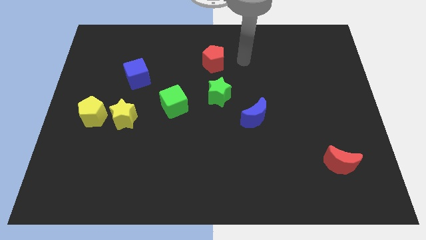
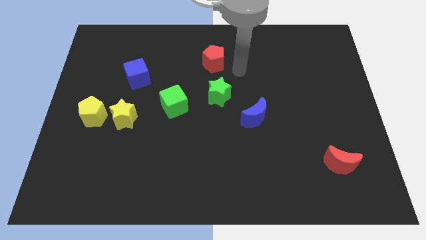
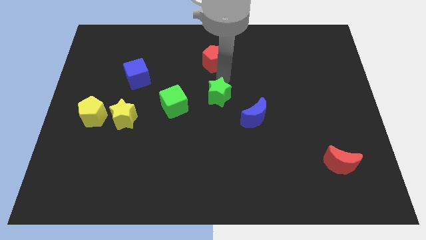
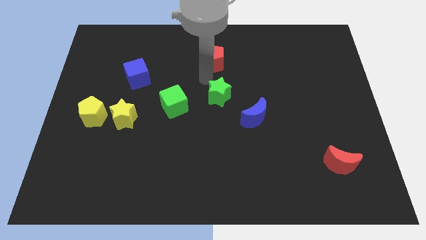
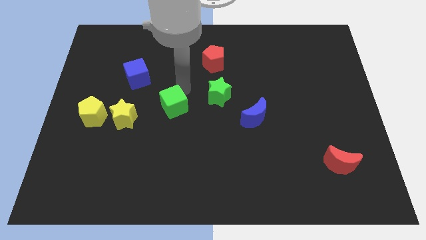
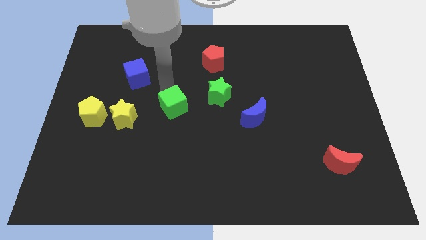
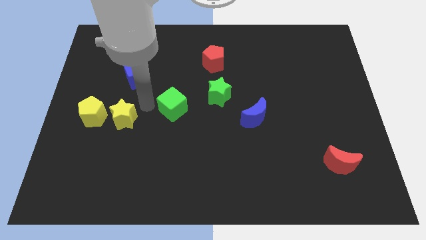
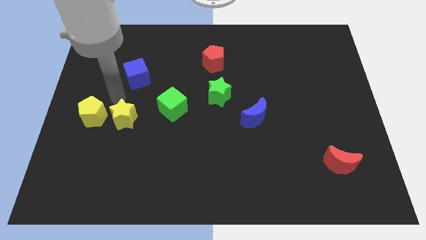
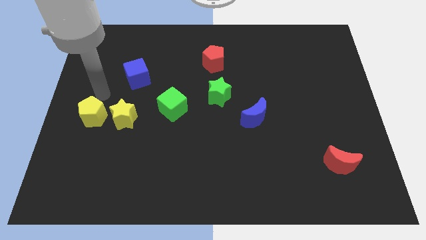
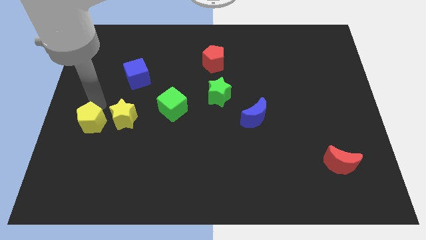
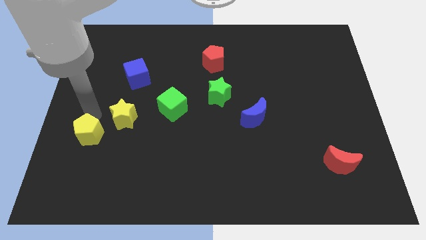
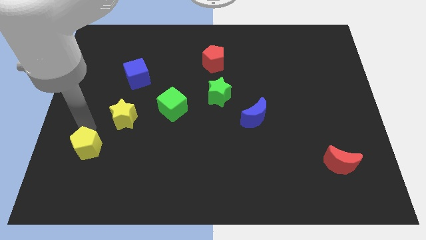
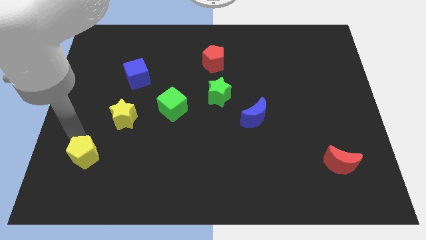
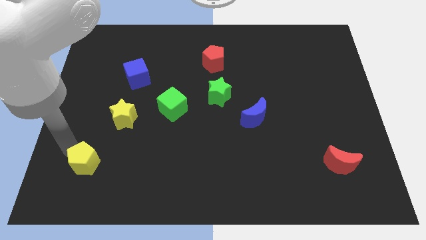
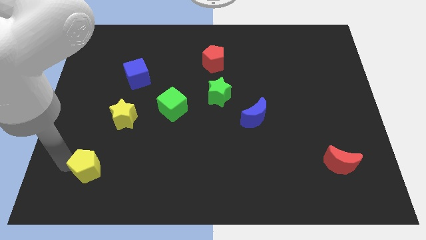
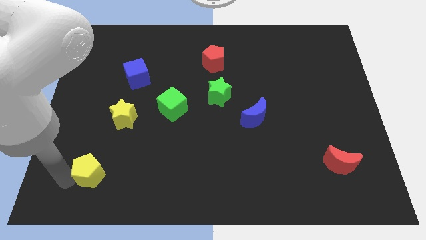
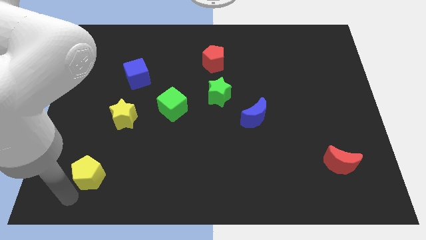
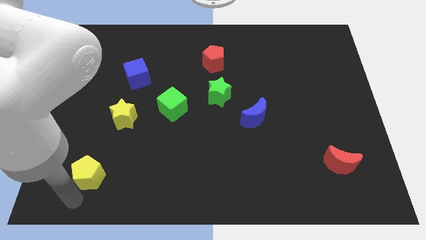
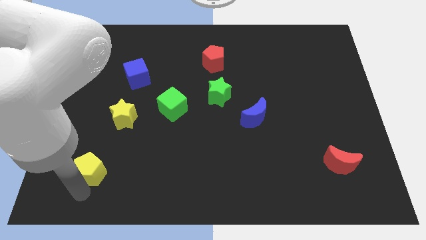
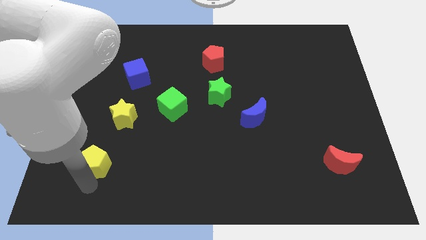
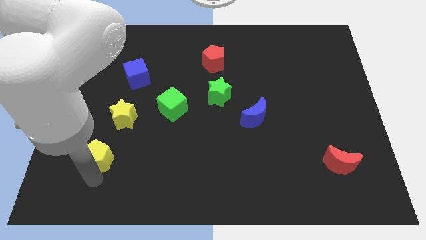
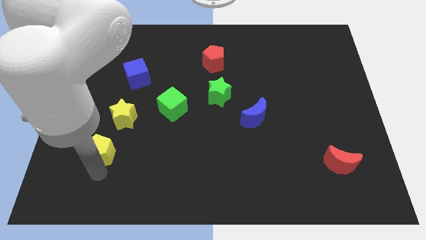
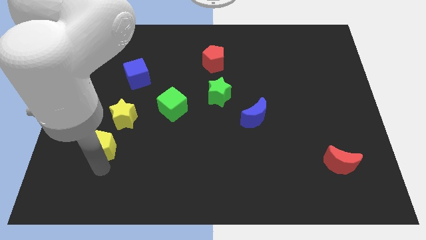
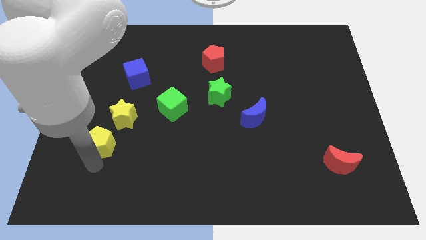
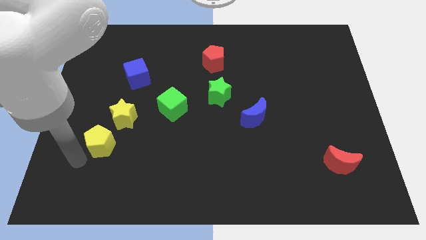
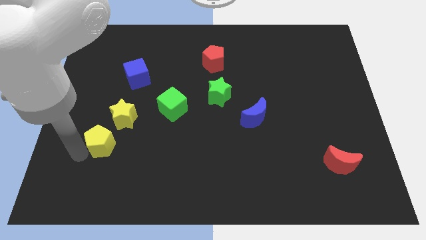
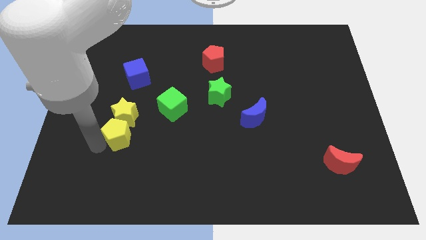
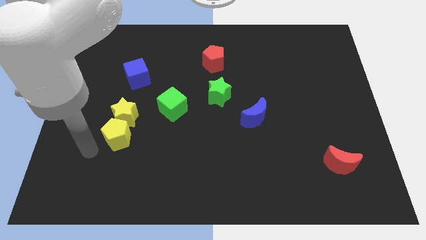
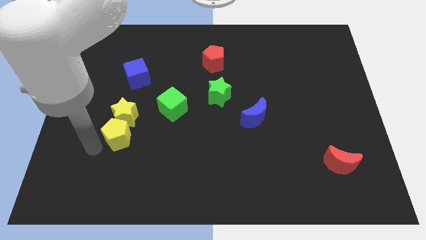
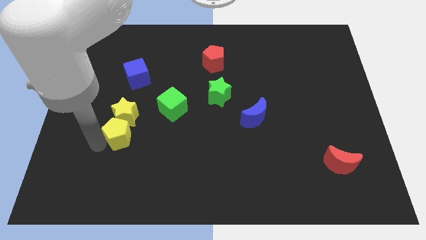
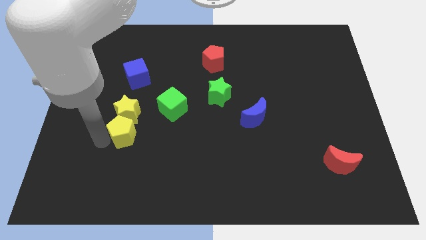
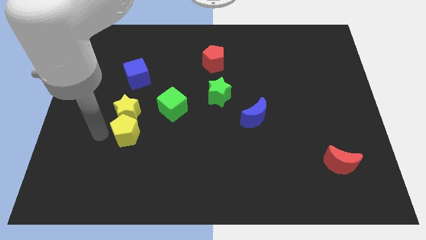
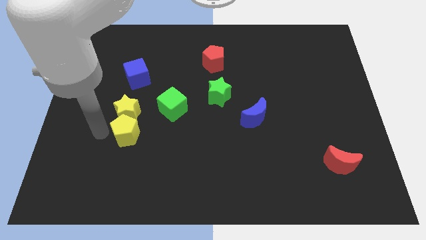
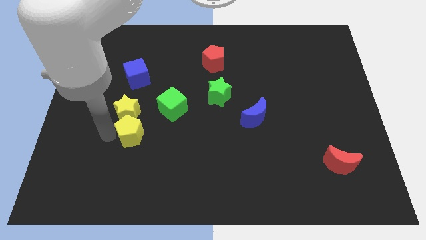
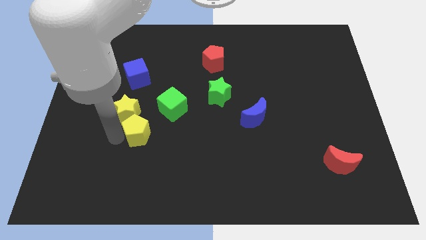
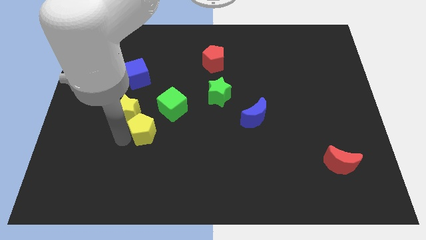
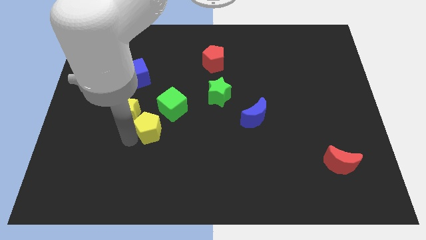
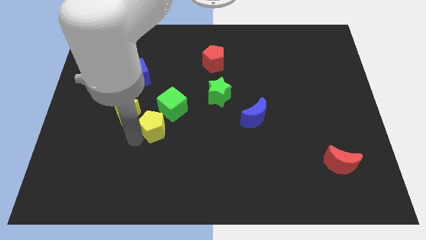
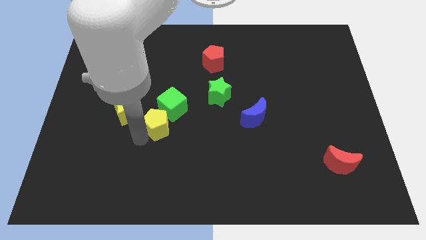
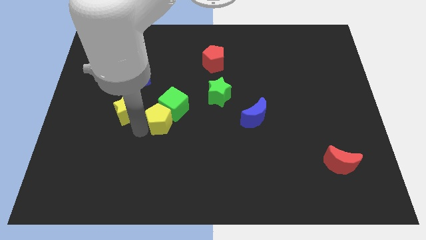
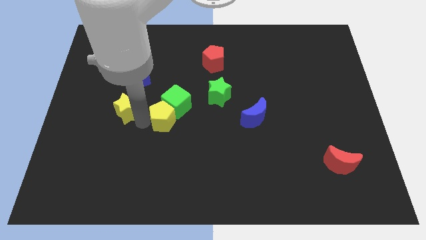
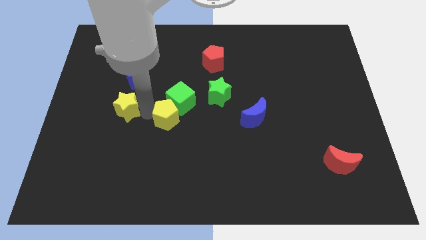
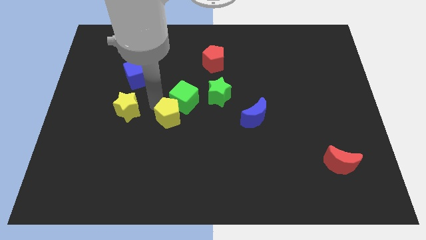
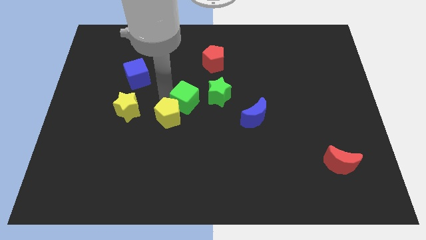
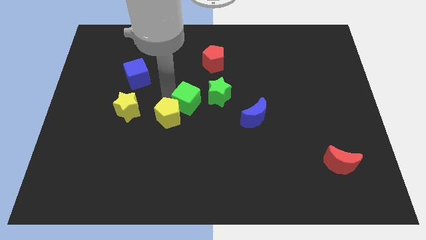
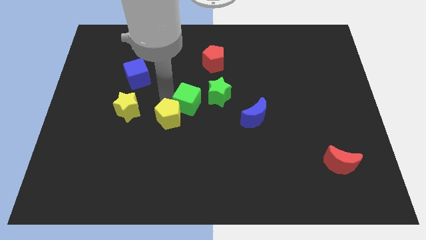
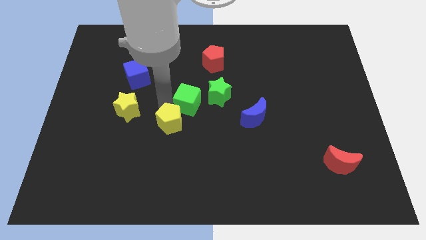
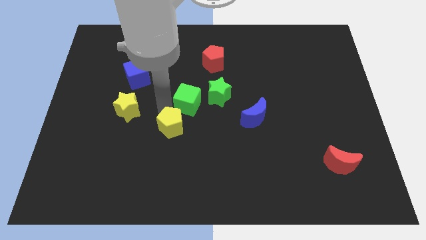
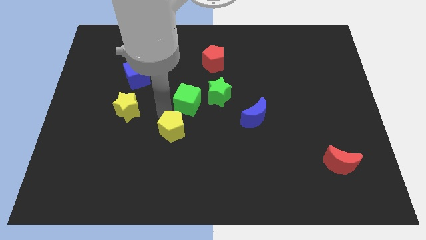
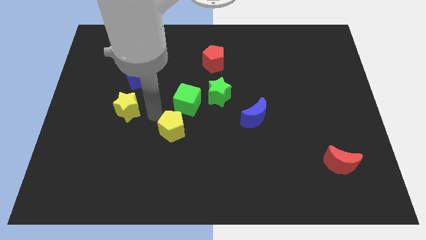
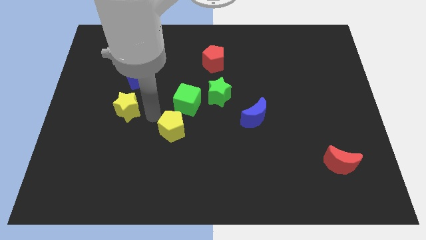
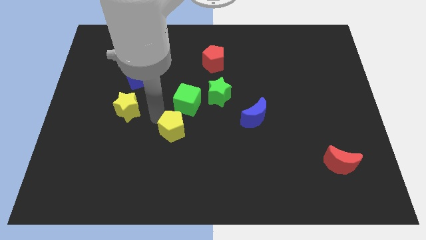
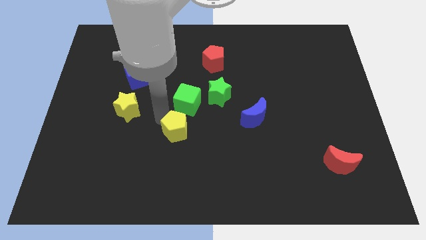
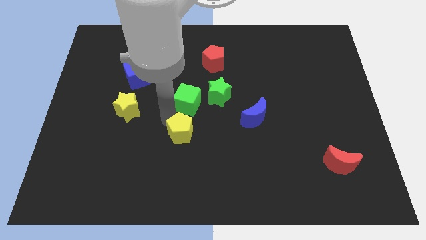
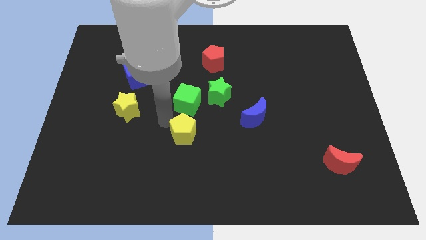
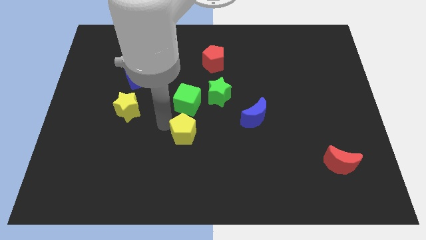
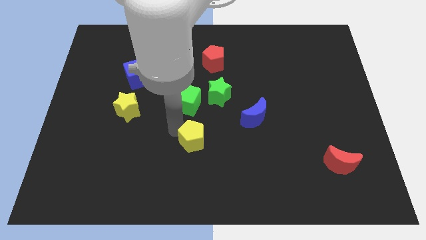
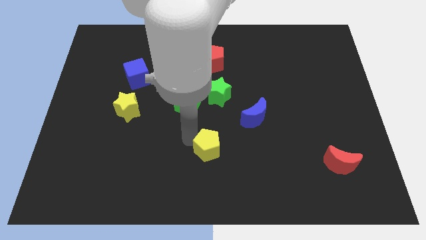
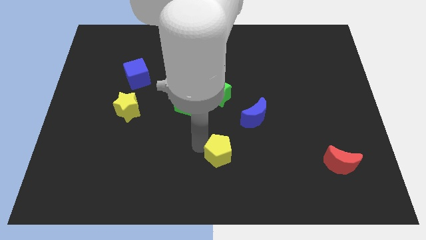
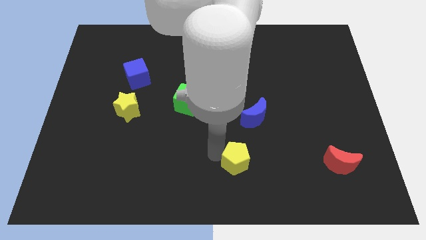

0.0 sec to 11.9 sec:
put the yellow pentagon to the bottom of the blue moon

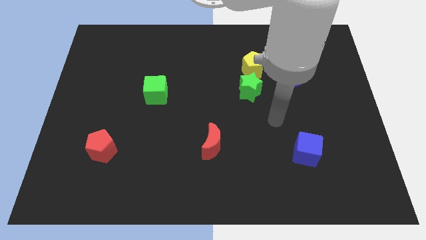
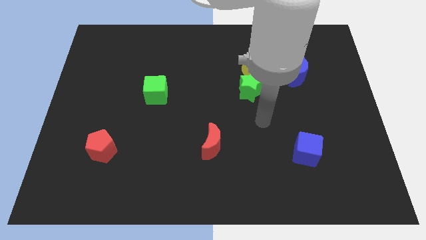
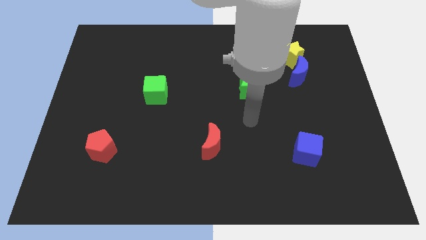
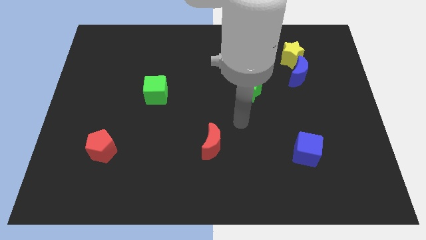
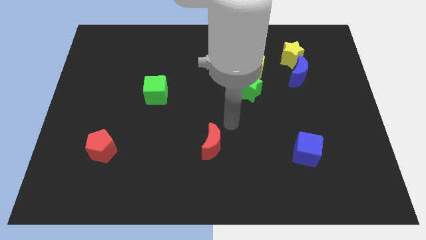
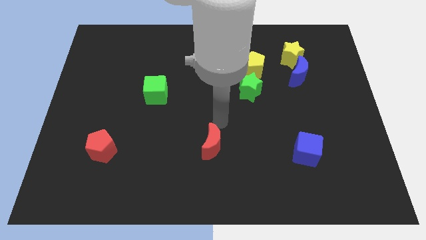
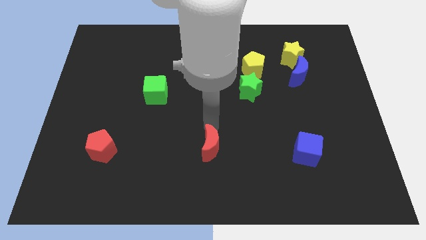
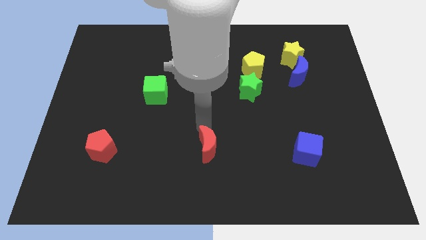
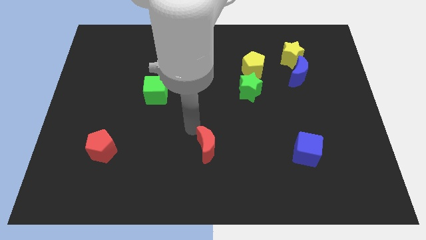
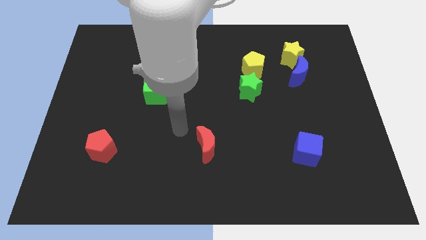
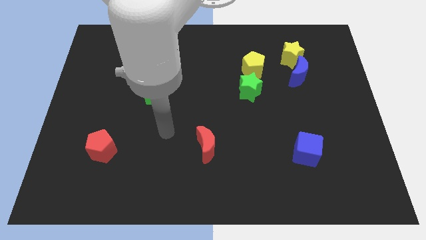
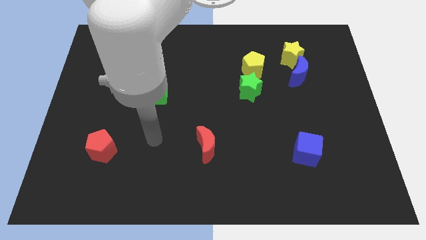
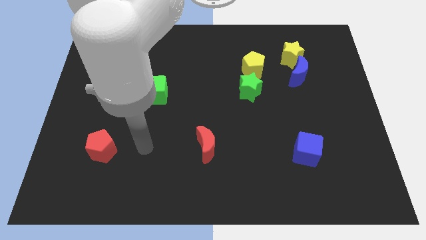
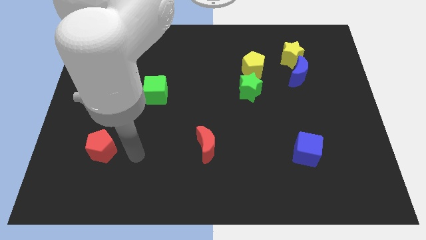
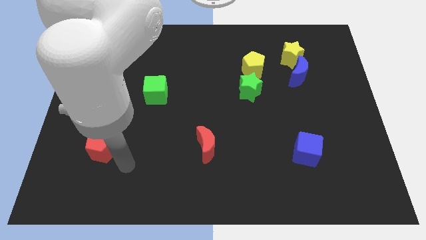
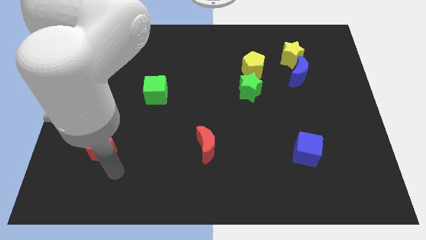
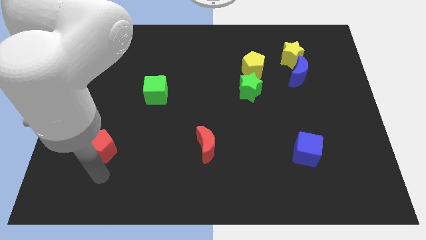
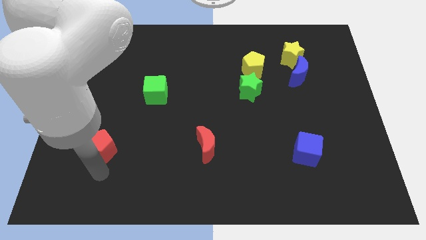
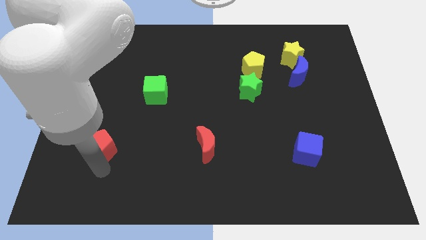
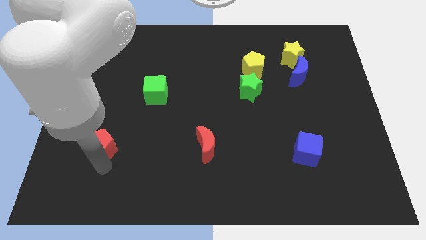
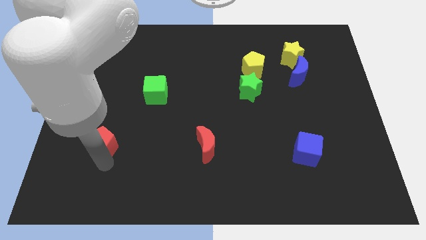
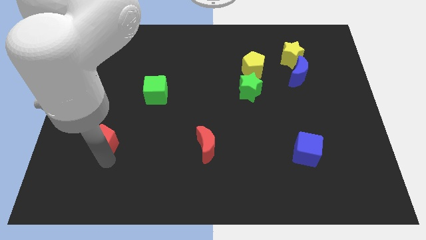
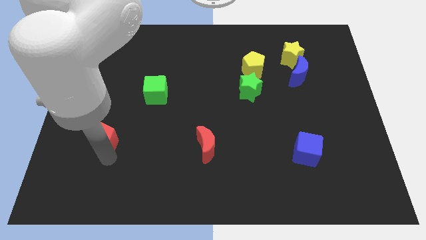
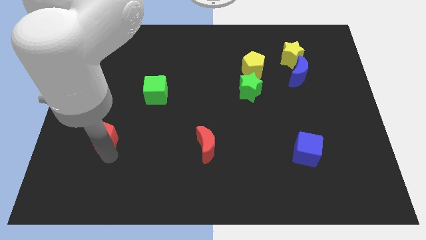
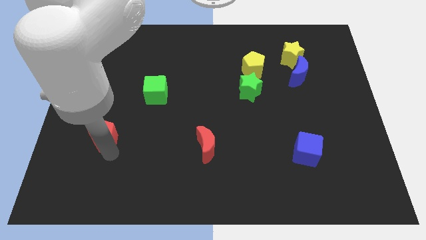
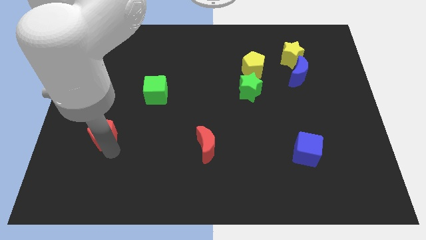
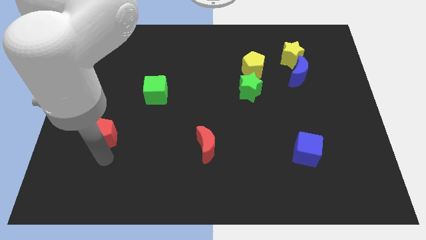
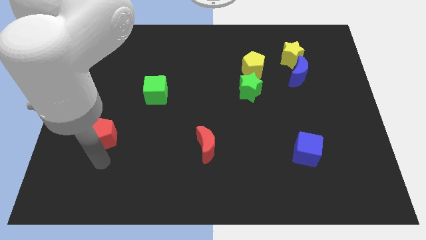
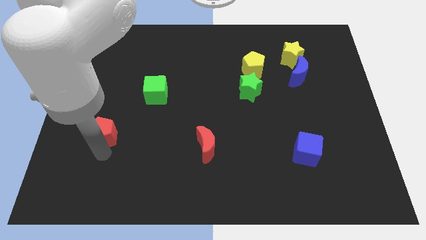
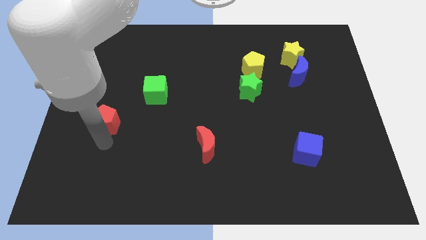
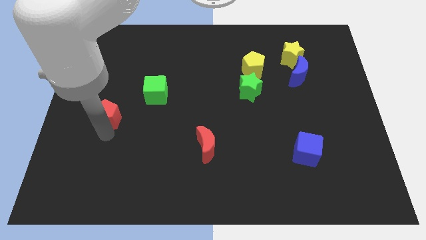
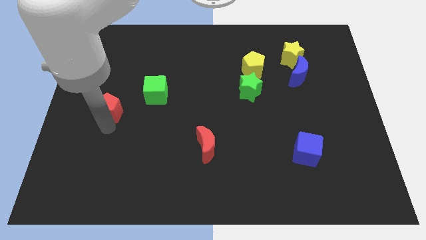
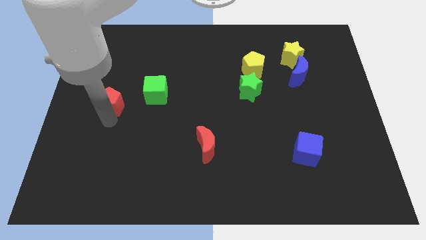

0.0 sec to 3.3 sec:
move the red pentagon left of the green cube
